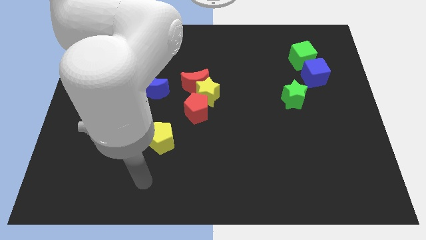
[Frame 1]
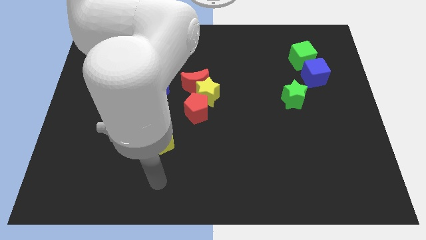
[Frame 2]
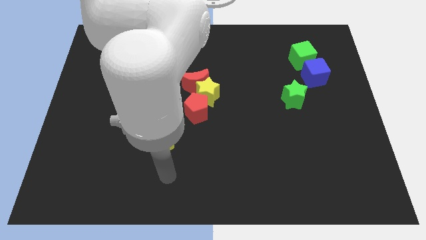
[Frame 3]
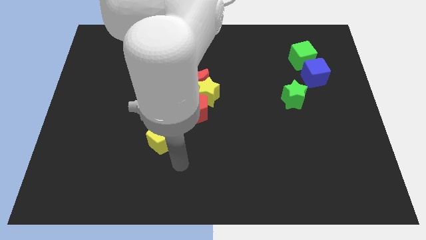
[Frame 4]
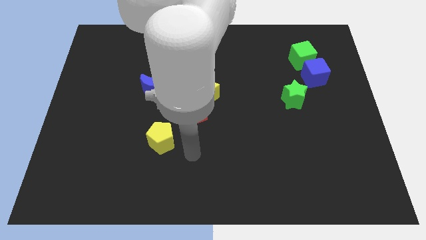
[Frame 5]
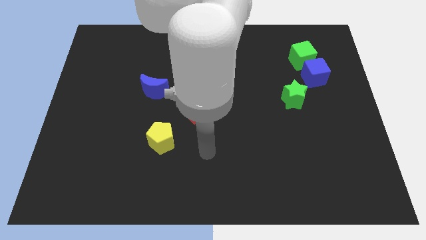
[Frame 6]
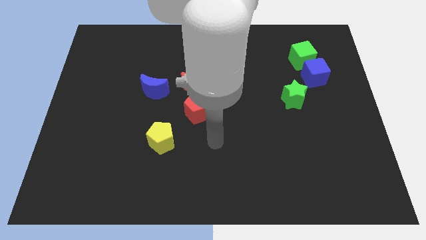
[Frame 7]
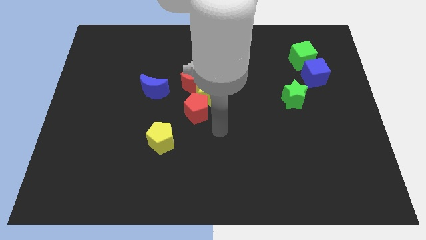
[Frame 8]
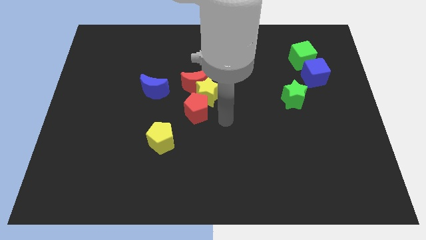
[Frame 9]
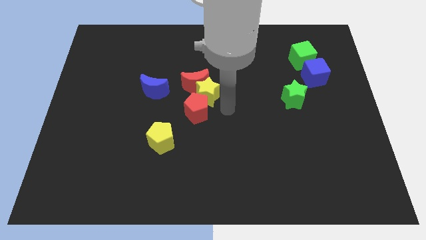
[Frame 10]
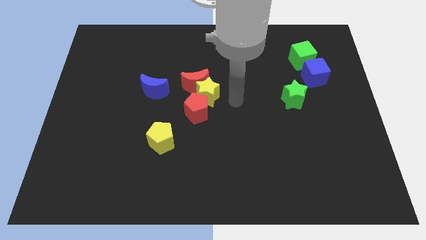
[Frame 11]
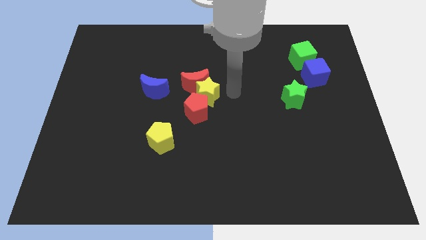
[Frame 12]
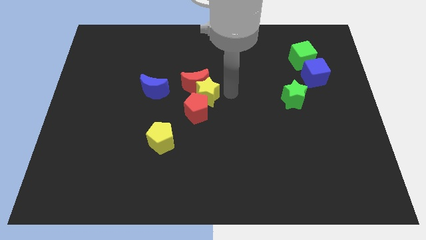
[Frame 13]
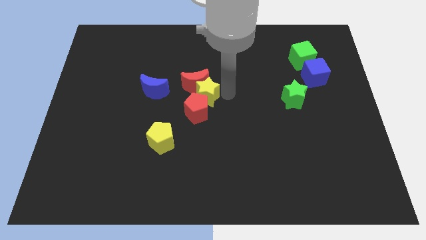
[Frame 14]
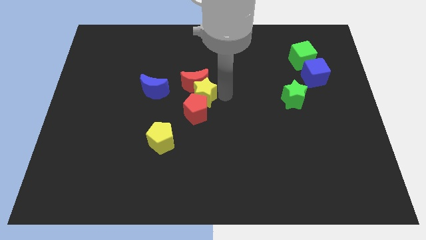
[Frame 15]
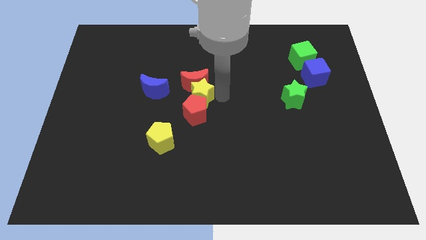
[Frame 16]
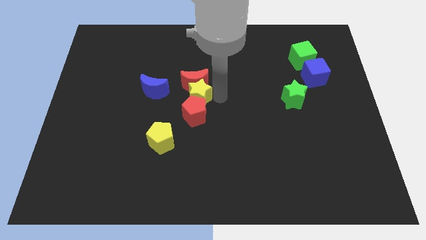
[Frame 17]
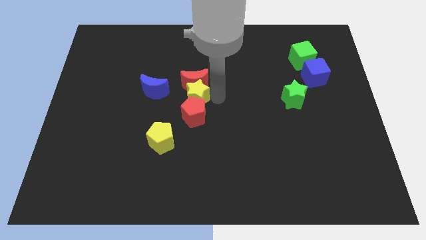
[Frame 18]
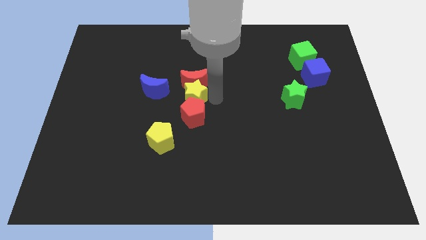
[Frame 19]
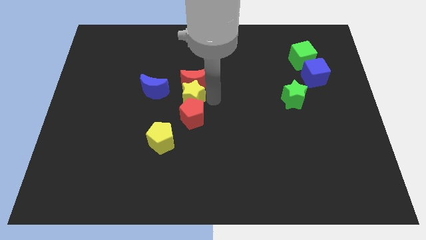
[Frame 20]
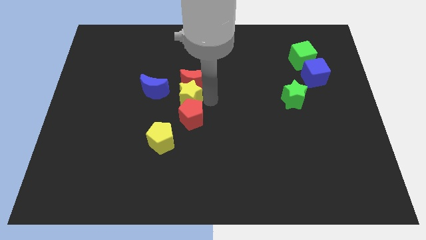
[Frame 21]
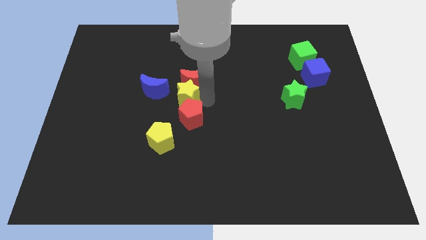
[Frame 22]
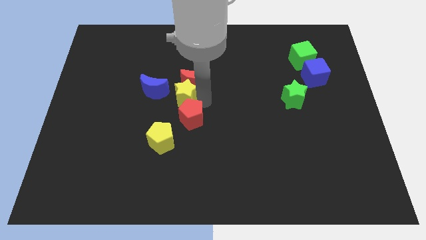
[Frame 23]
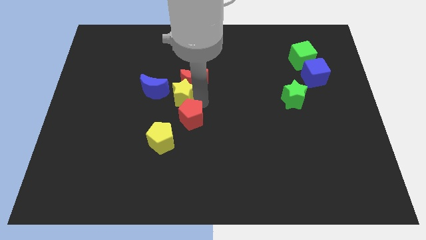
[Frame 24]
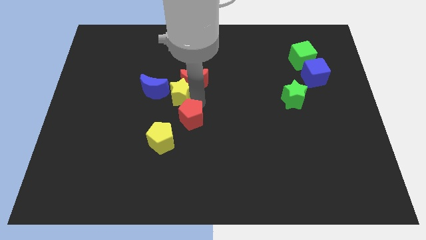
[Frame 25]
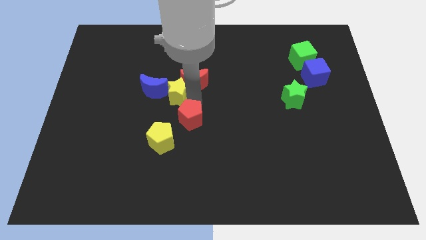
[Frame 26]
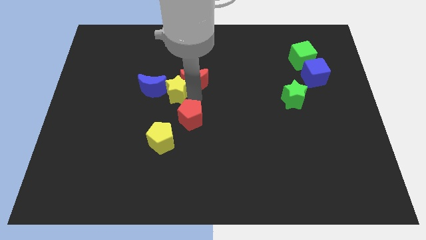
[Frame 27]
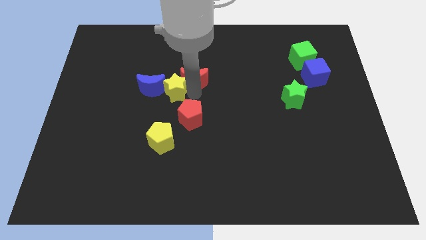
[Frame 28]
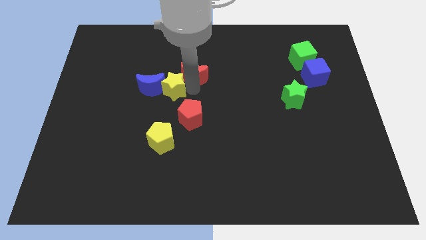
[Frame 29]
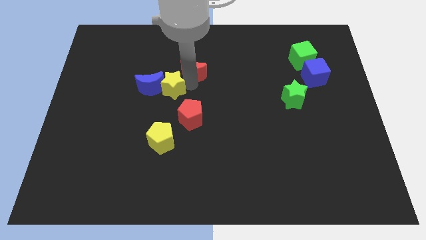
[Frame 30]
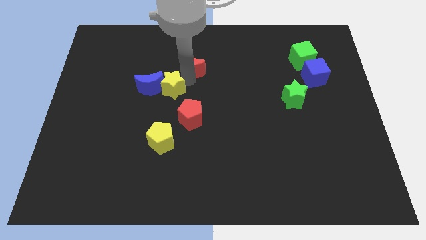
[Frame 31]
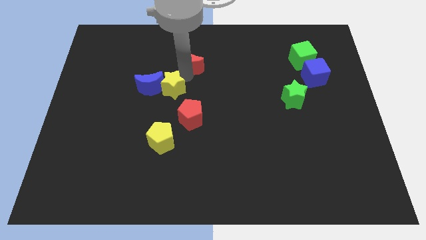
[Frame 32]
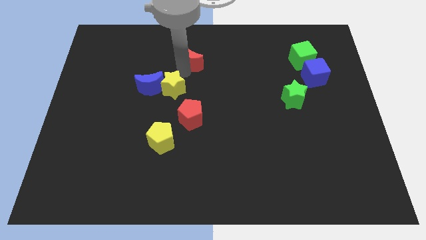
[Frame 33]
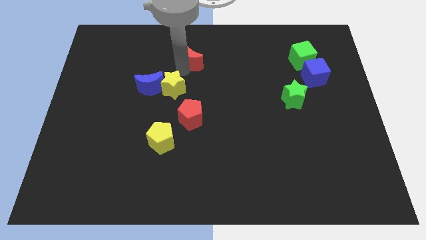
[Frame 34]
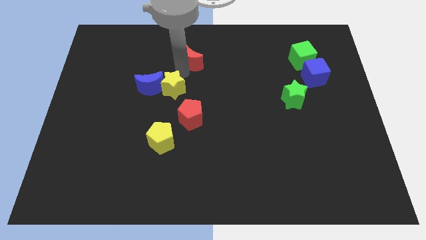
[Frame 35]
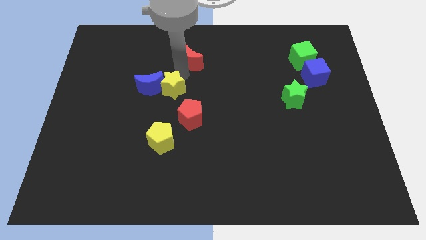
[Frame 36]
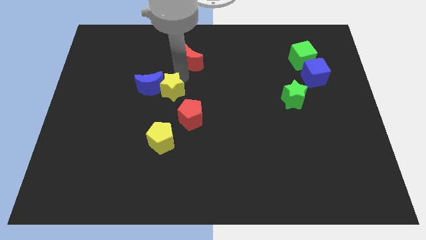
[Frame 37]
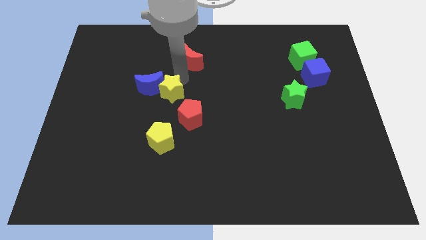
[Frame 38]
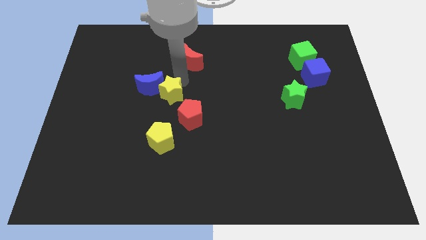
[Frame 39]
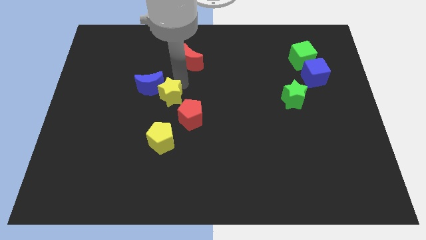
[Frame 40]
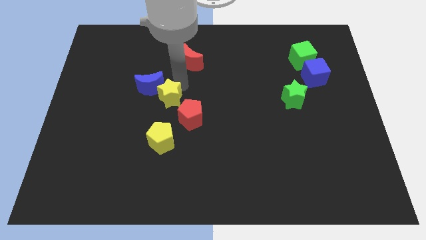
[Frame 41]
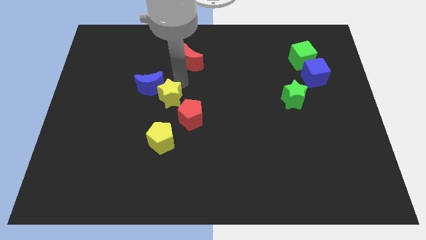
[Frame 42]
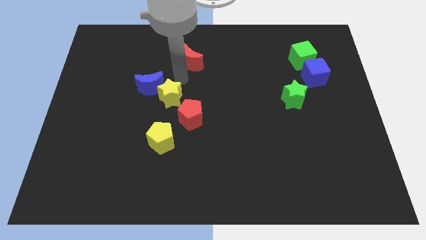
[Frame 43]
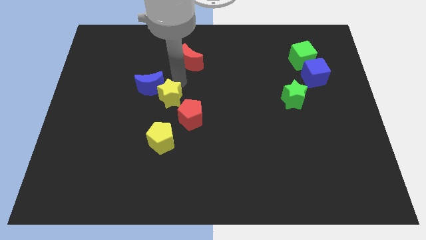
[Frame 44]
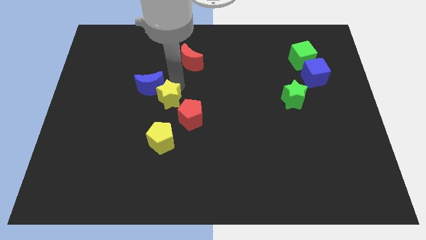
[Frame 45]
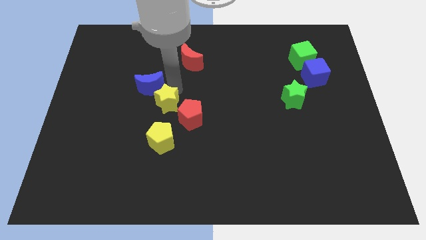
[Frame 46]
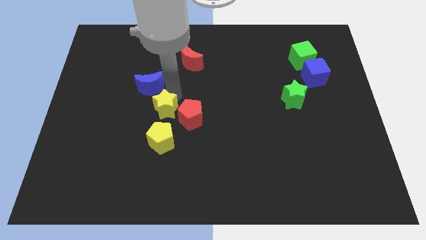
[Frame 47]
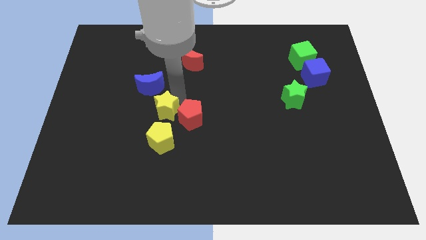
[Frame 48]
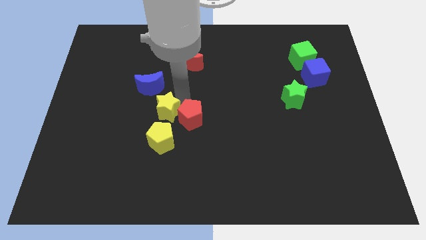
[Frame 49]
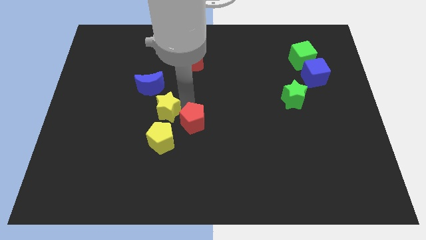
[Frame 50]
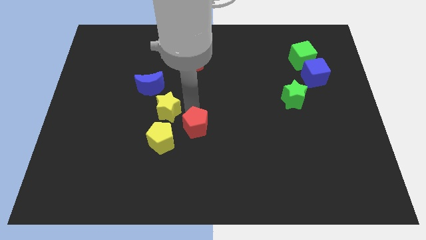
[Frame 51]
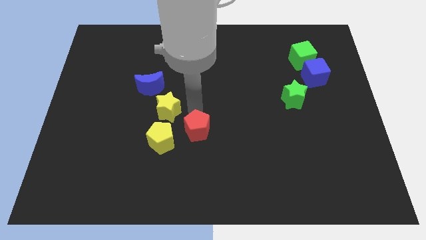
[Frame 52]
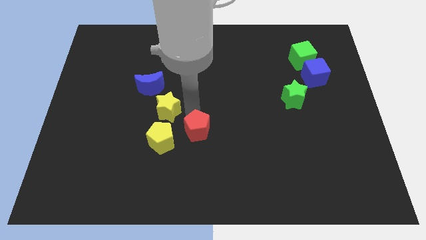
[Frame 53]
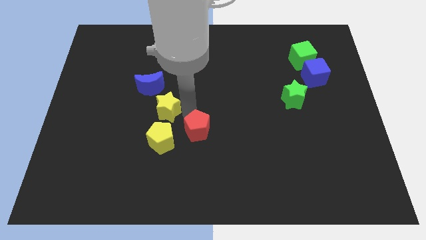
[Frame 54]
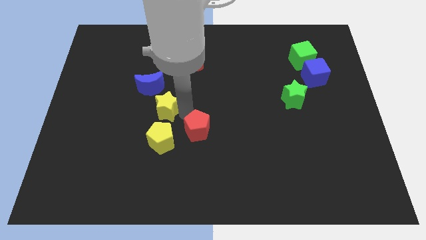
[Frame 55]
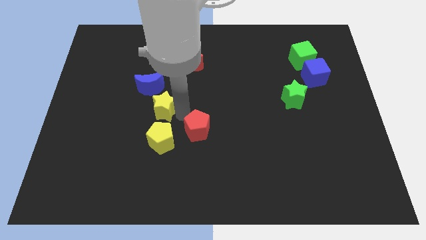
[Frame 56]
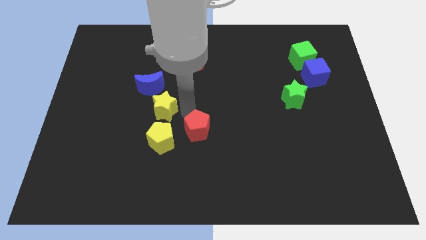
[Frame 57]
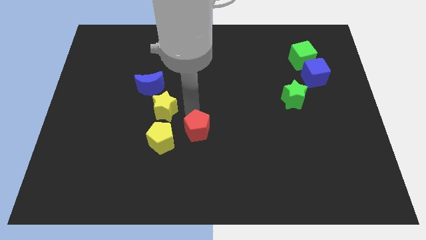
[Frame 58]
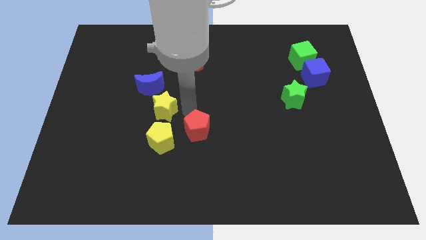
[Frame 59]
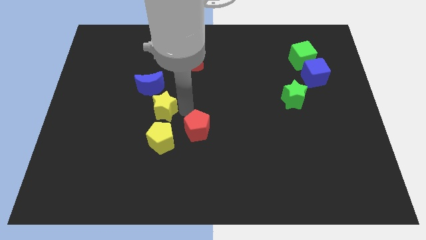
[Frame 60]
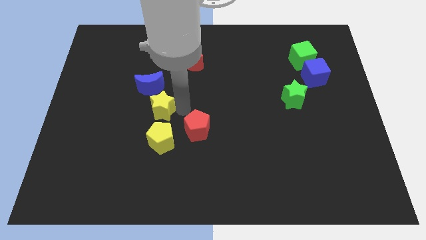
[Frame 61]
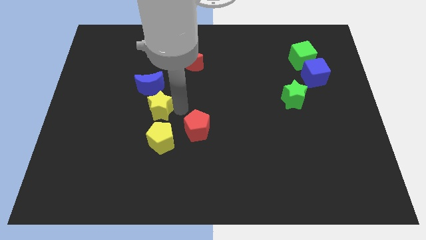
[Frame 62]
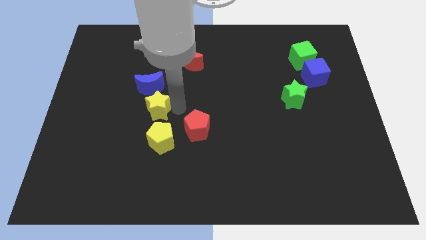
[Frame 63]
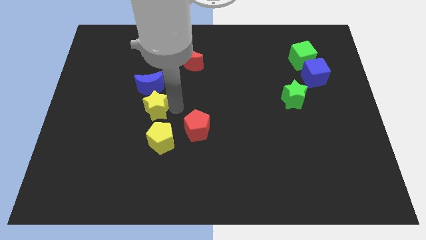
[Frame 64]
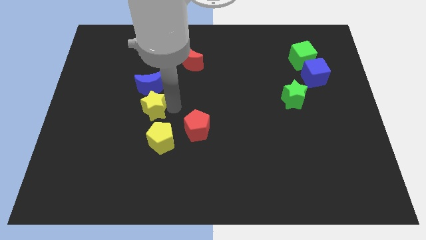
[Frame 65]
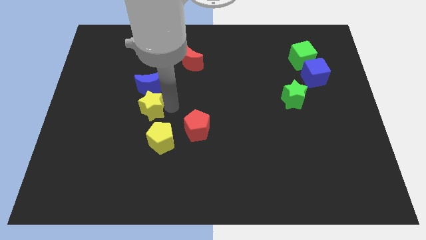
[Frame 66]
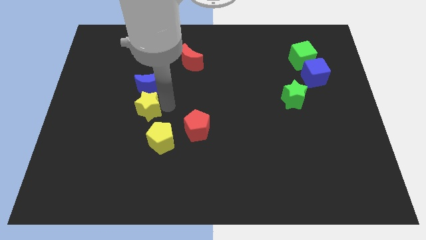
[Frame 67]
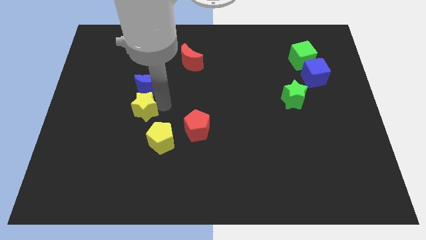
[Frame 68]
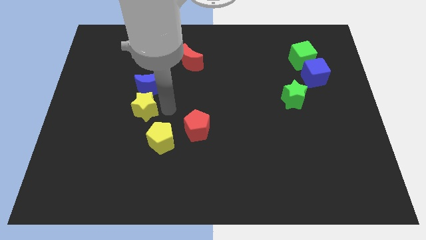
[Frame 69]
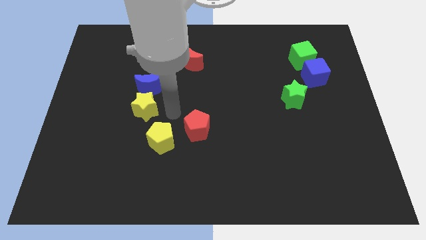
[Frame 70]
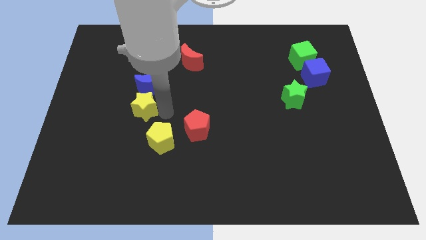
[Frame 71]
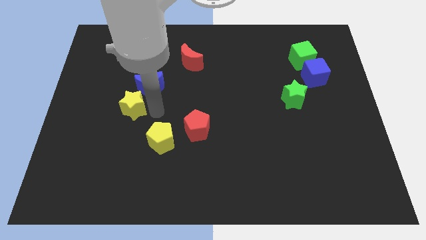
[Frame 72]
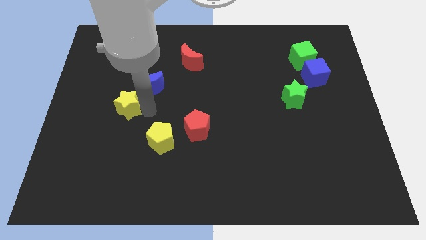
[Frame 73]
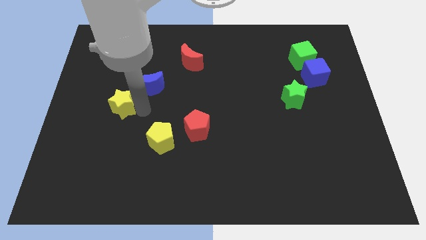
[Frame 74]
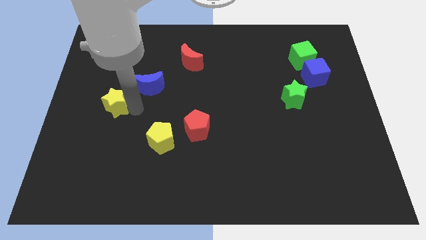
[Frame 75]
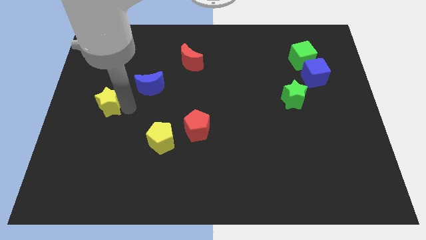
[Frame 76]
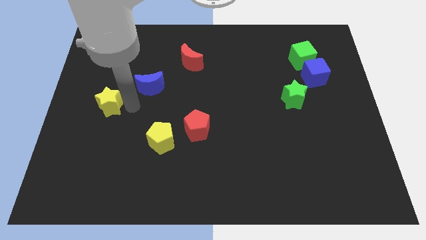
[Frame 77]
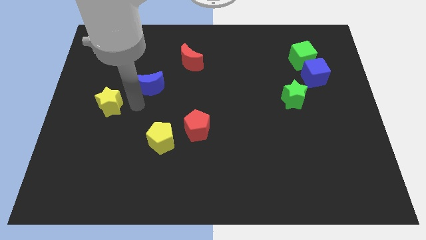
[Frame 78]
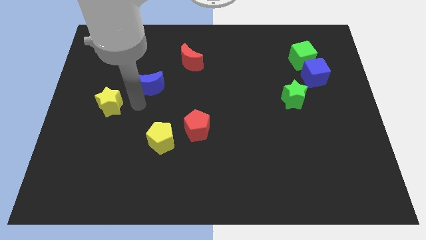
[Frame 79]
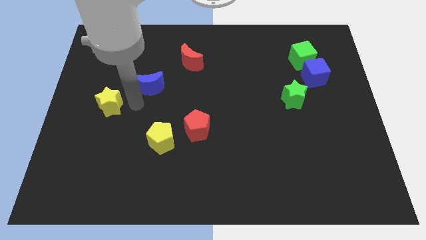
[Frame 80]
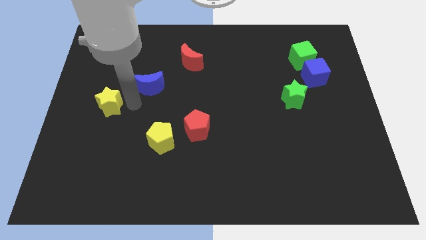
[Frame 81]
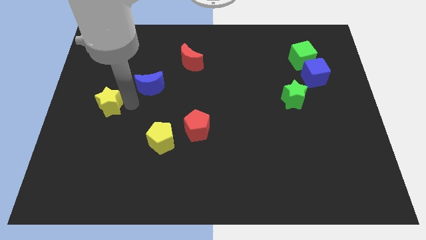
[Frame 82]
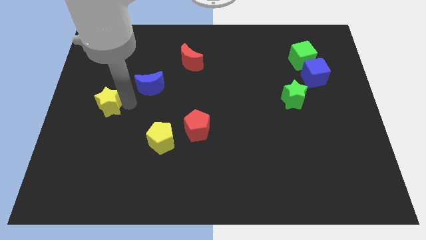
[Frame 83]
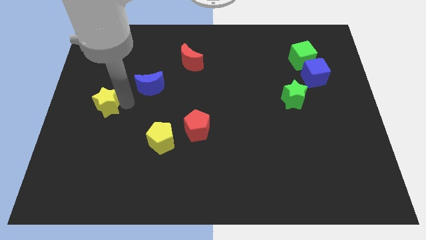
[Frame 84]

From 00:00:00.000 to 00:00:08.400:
put the yellow star to the left side
